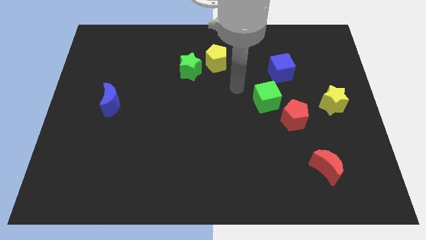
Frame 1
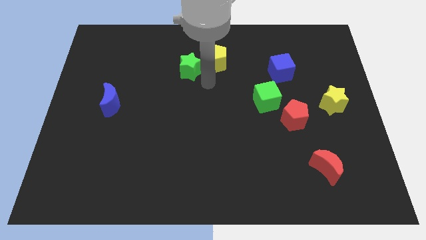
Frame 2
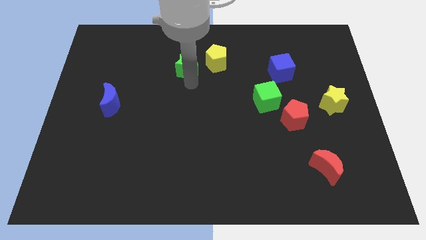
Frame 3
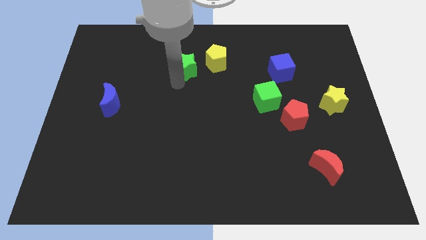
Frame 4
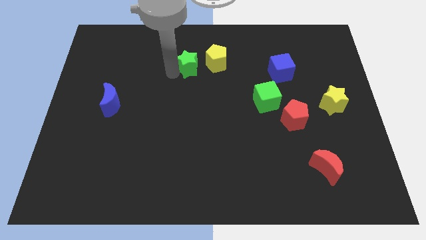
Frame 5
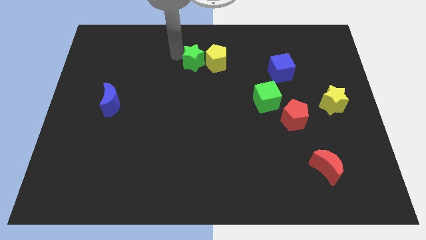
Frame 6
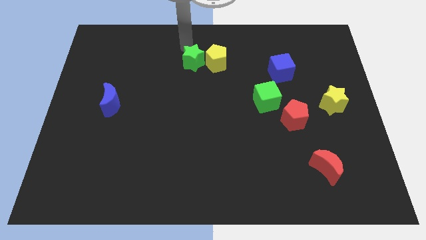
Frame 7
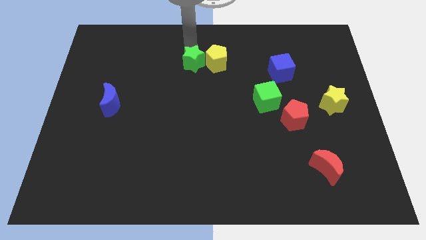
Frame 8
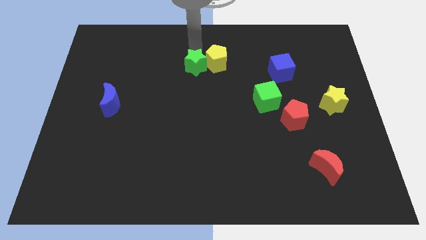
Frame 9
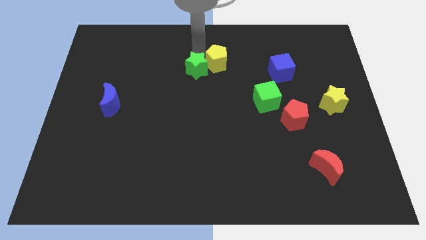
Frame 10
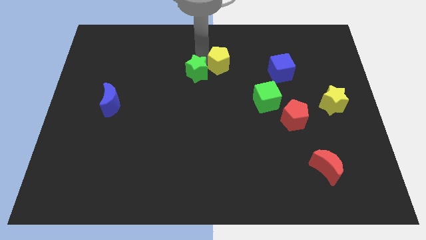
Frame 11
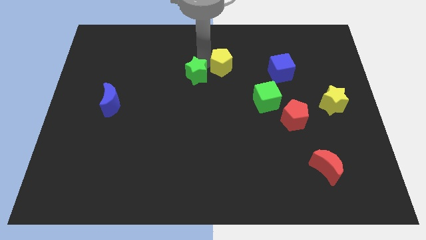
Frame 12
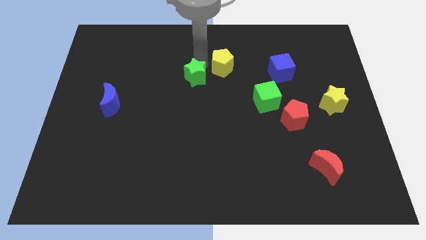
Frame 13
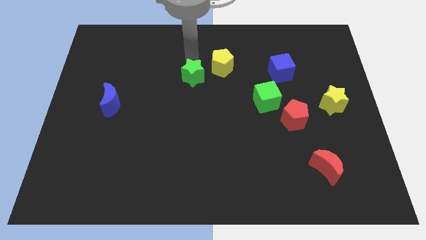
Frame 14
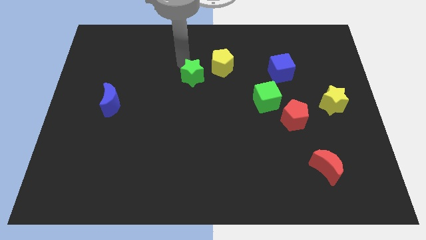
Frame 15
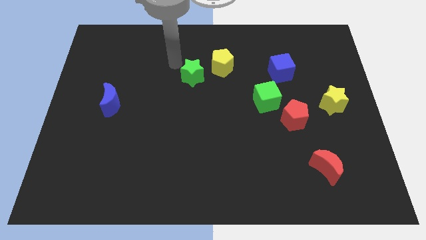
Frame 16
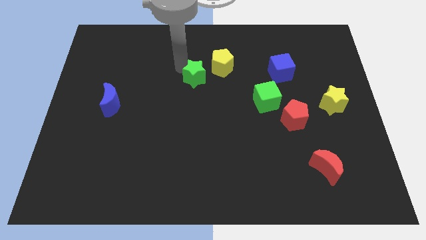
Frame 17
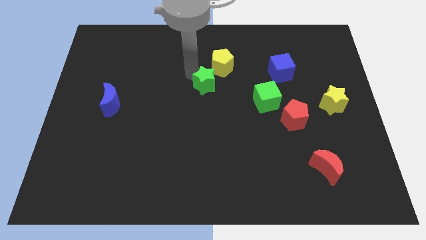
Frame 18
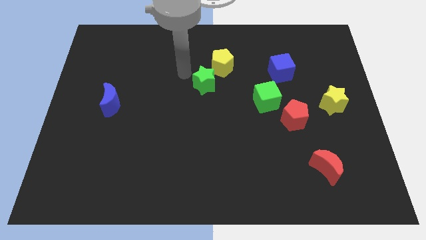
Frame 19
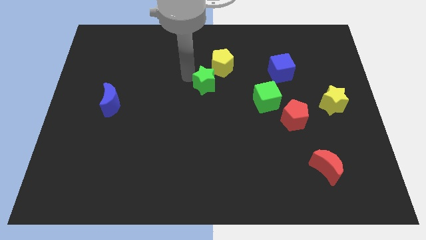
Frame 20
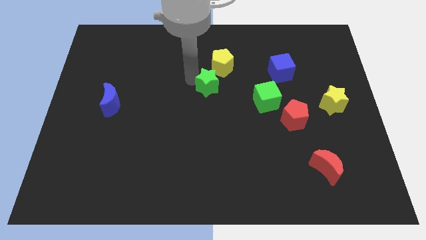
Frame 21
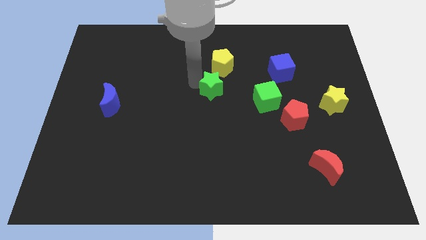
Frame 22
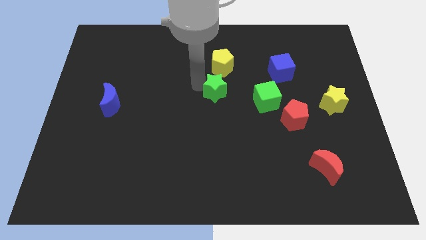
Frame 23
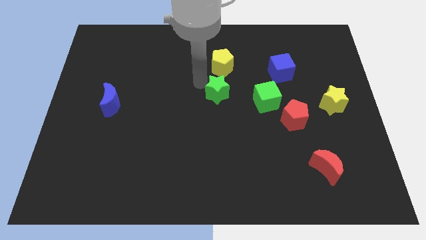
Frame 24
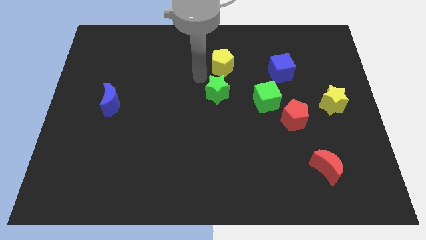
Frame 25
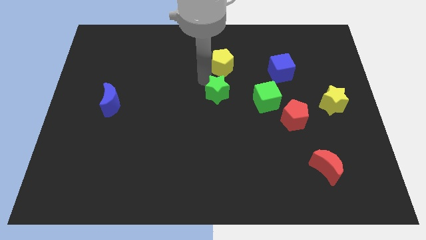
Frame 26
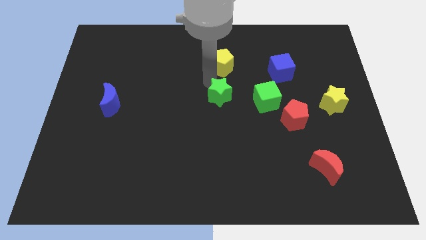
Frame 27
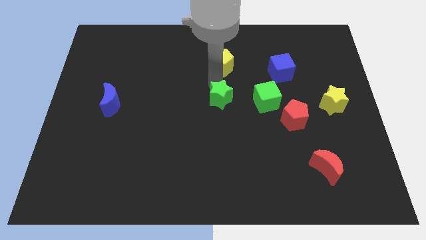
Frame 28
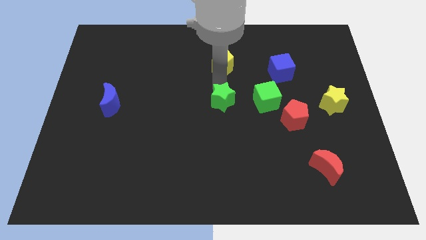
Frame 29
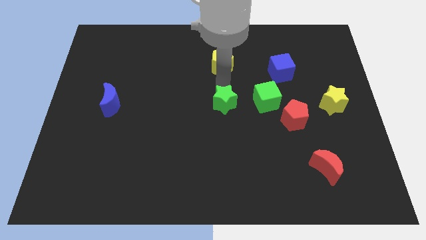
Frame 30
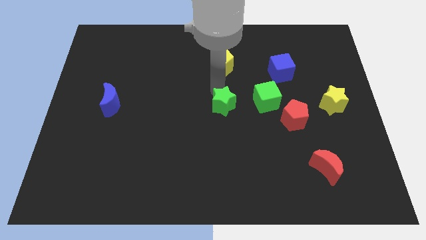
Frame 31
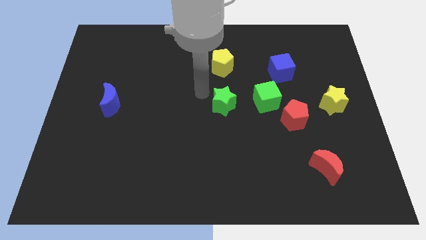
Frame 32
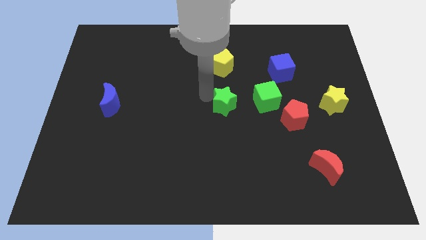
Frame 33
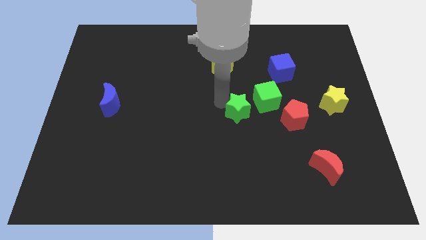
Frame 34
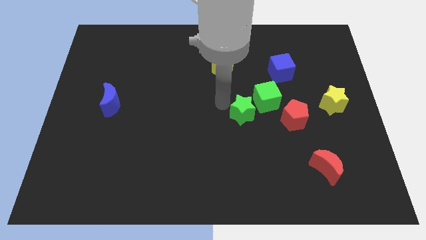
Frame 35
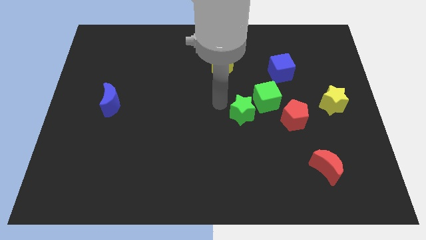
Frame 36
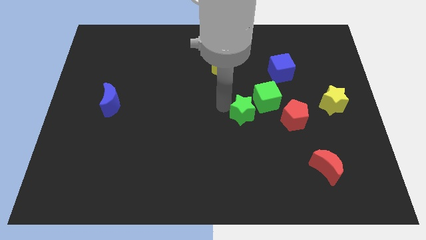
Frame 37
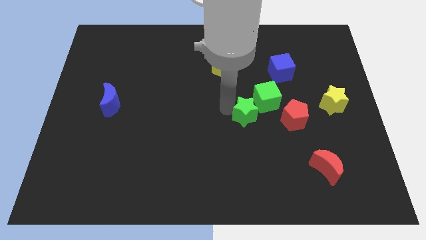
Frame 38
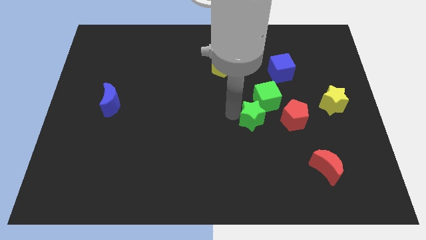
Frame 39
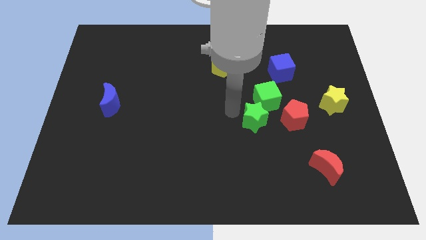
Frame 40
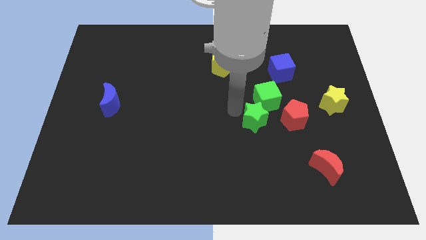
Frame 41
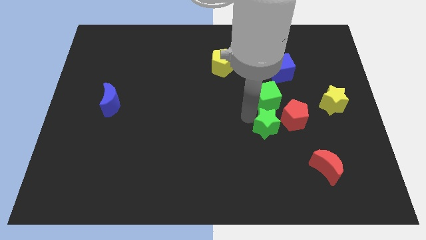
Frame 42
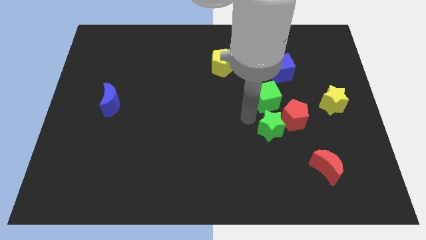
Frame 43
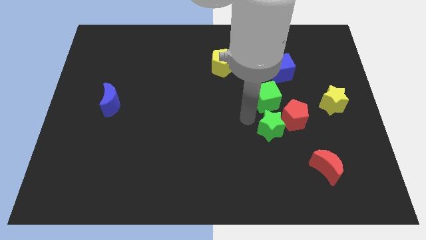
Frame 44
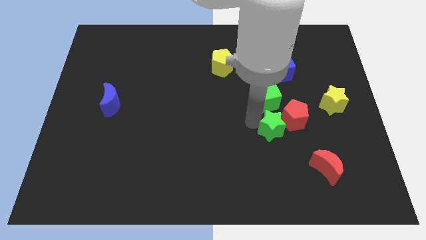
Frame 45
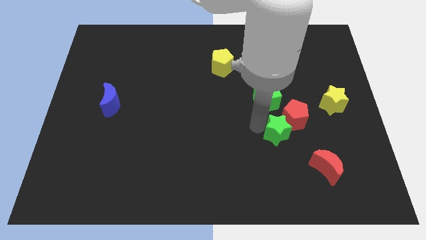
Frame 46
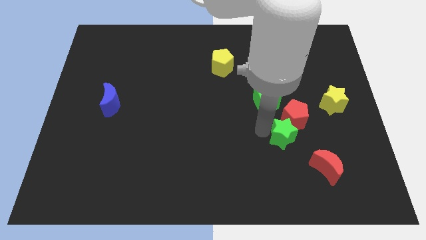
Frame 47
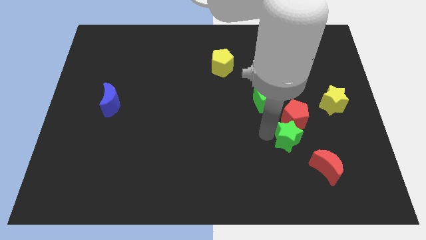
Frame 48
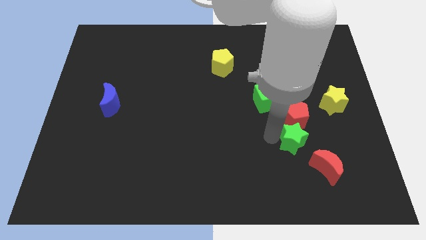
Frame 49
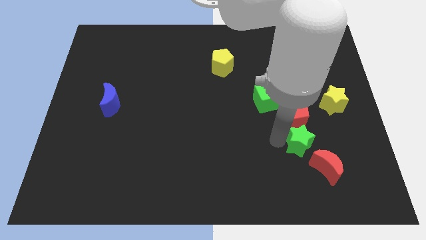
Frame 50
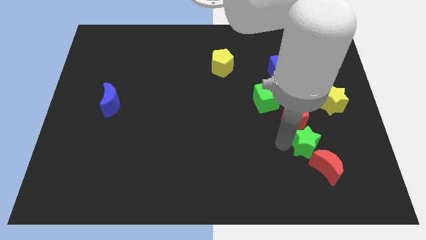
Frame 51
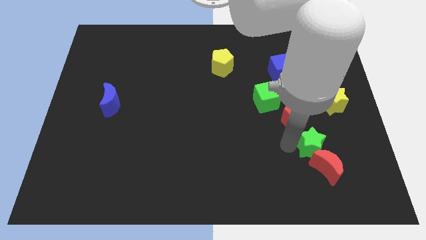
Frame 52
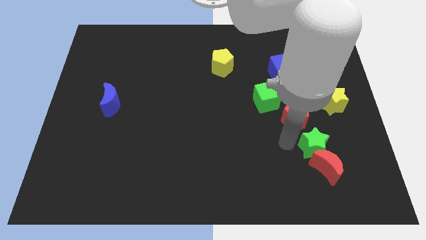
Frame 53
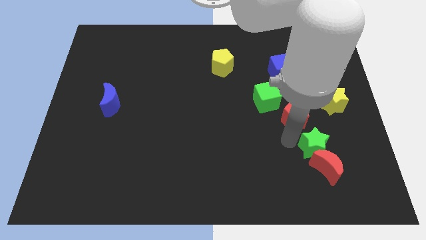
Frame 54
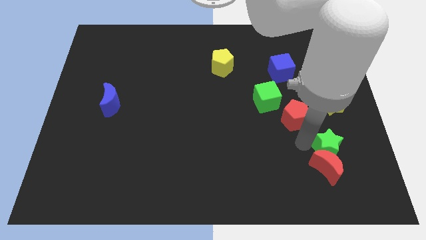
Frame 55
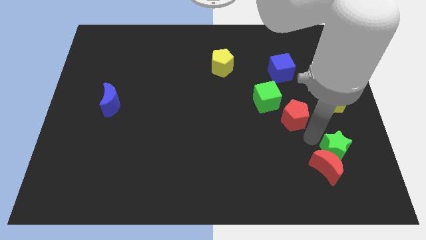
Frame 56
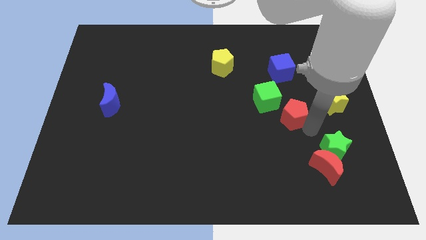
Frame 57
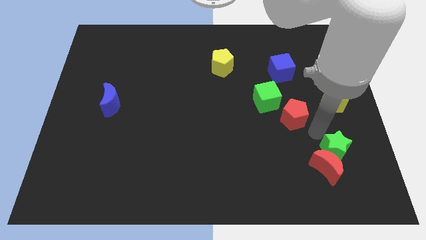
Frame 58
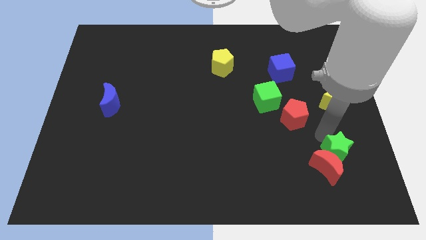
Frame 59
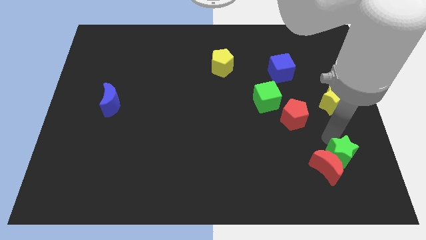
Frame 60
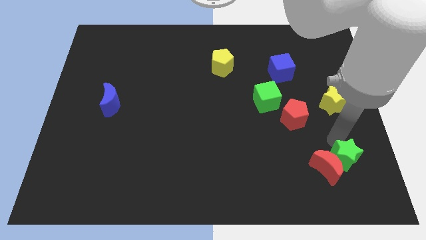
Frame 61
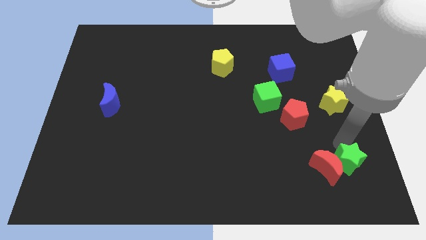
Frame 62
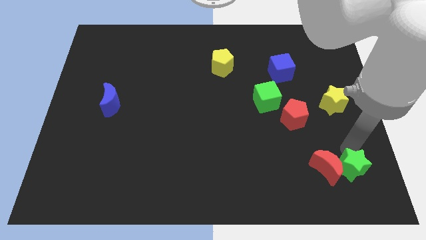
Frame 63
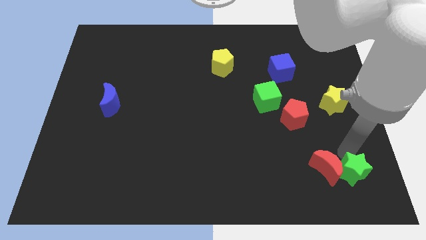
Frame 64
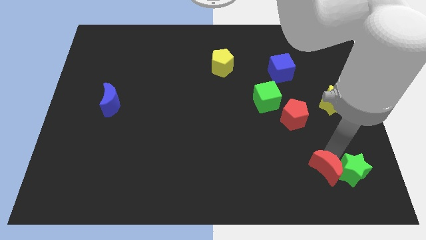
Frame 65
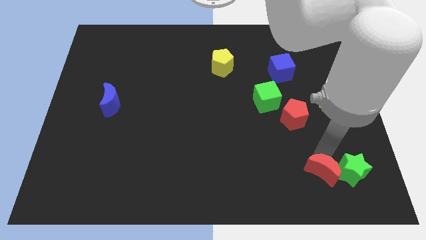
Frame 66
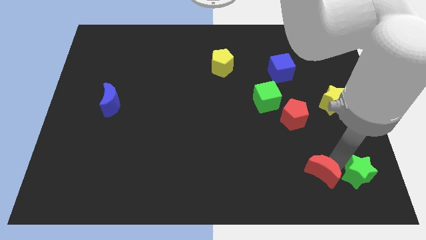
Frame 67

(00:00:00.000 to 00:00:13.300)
push the green star to the bottom right
